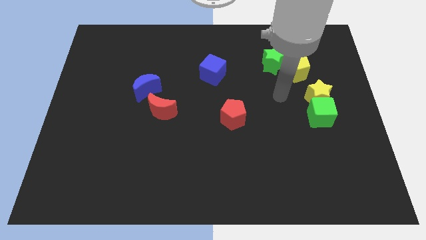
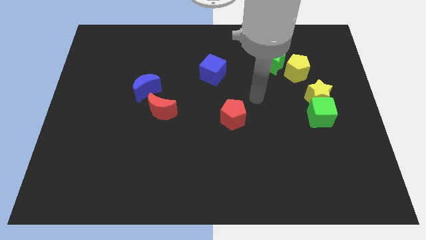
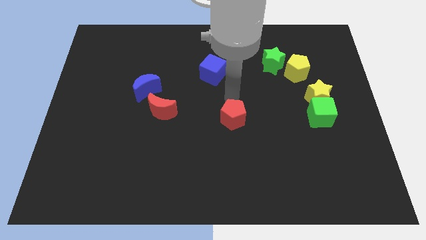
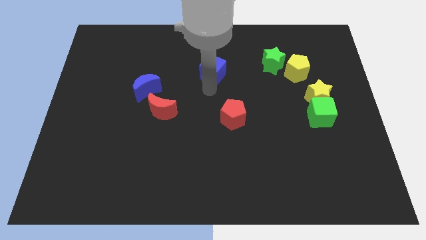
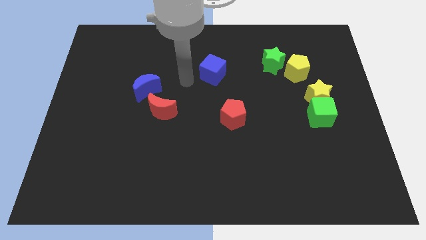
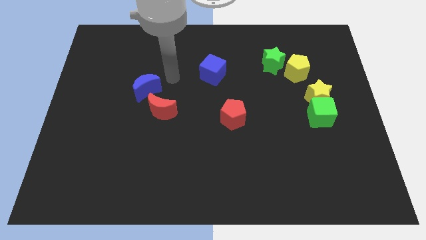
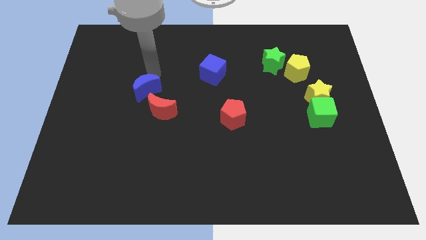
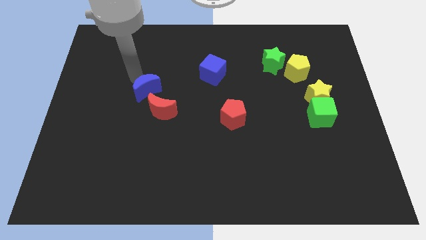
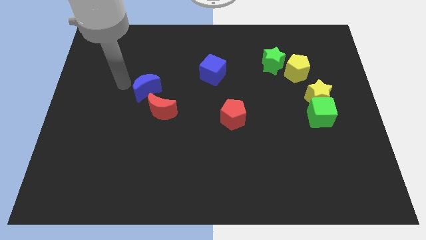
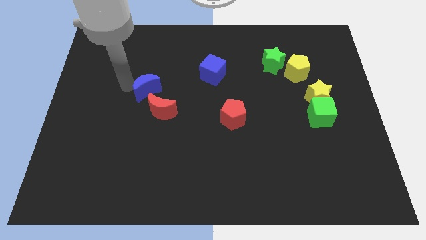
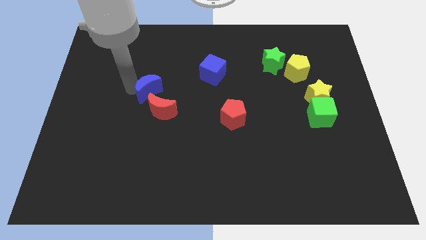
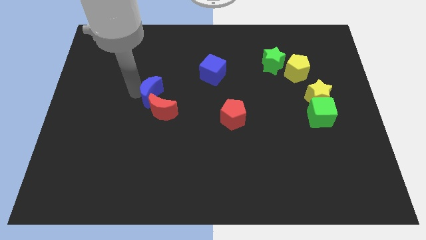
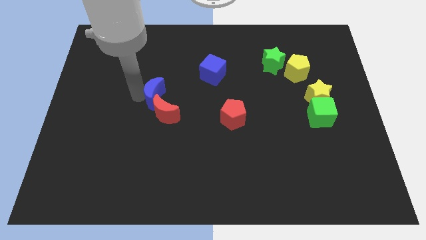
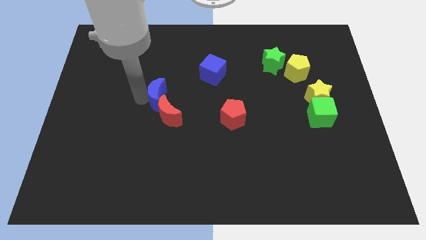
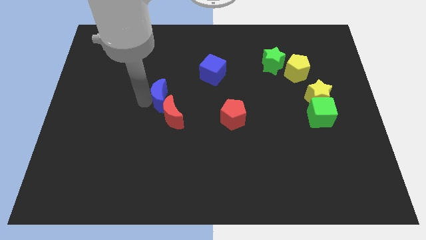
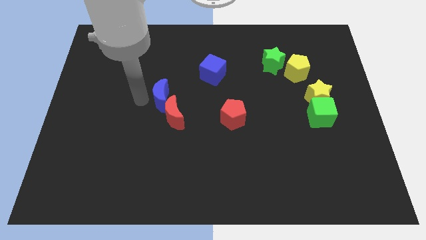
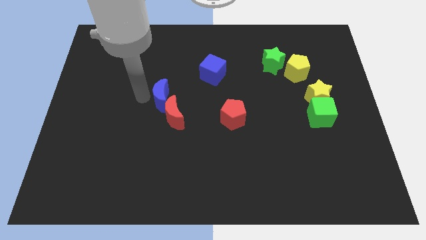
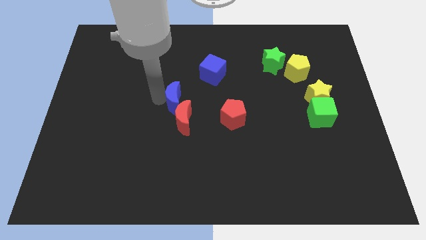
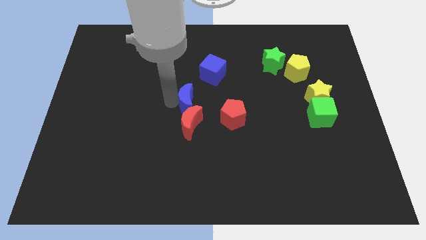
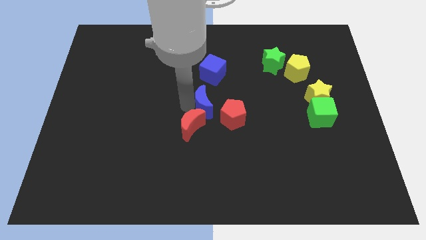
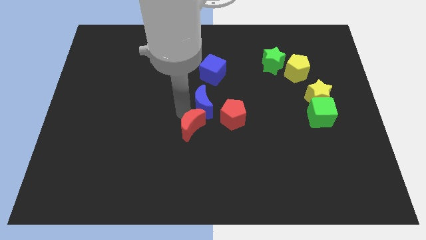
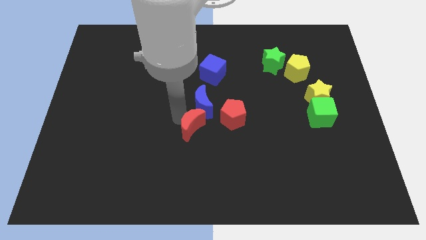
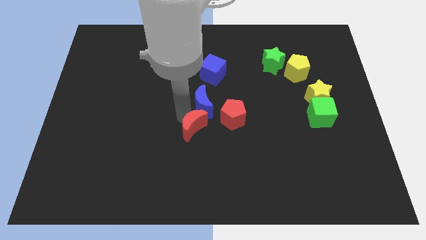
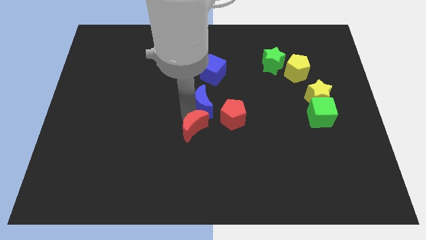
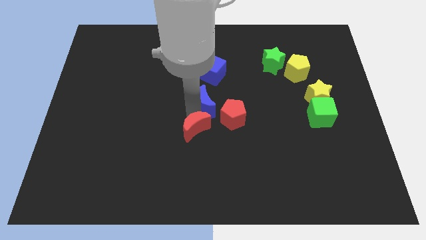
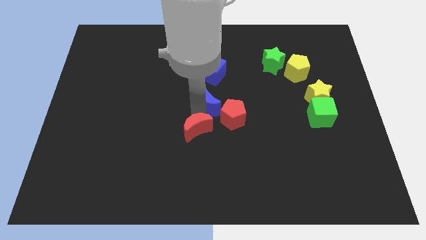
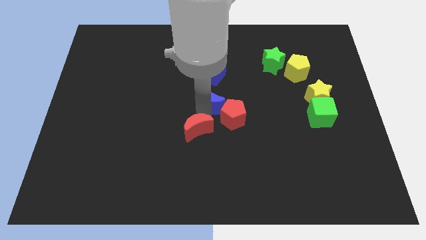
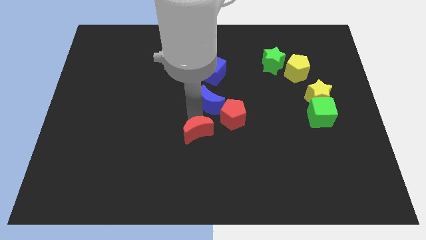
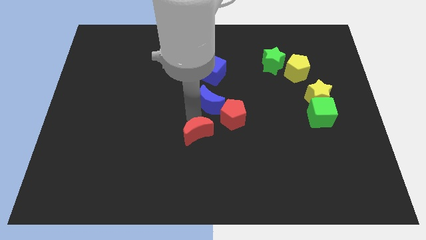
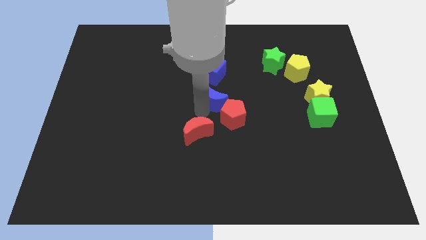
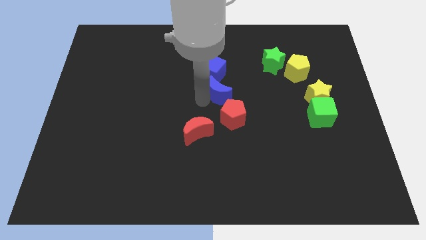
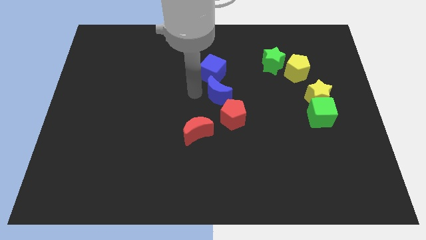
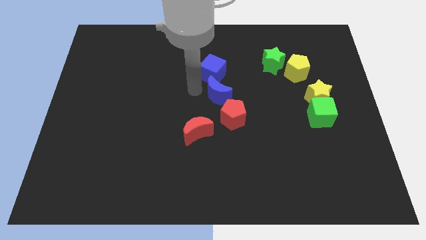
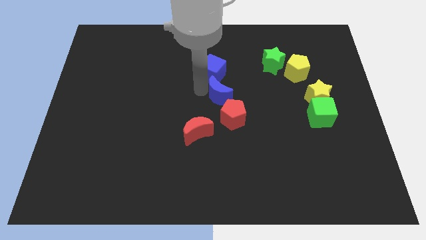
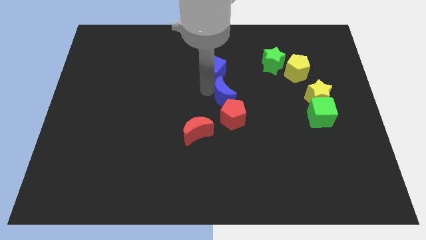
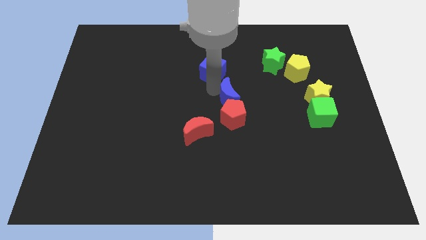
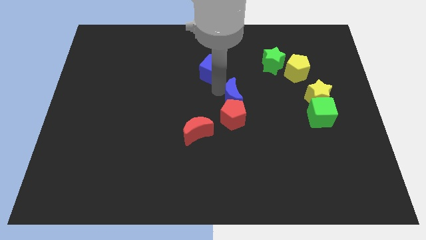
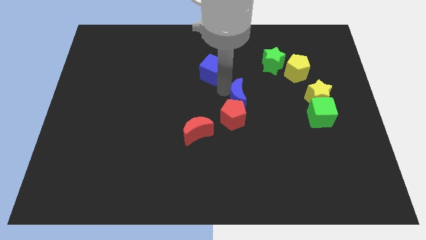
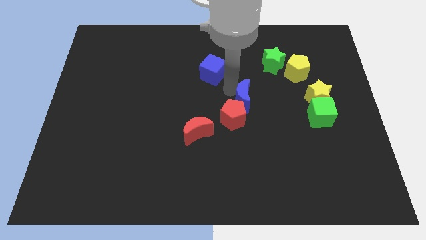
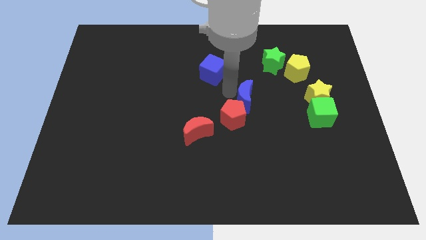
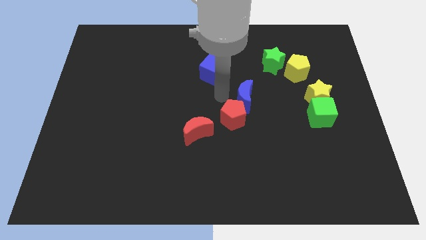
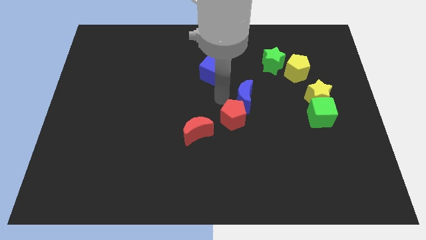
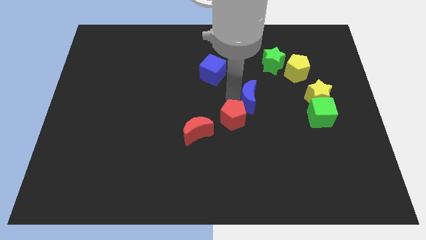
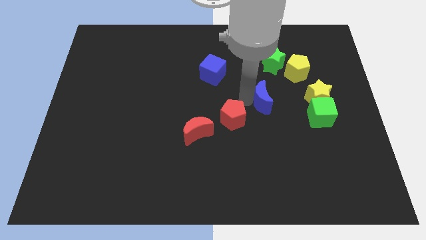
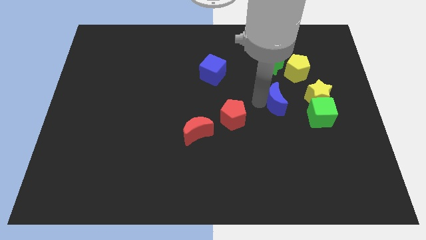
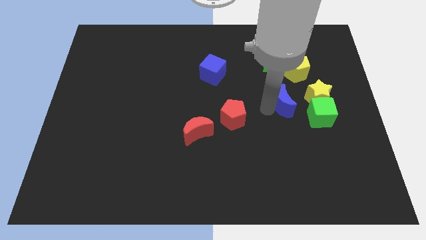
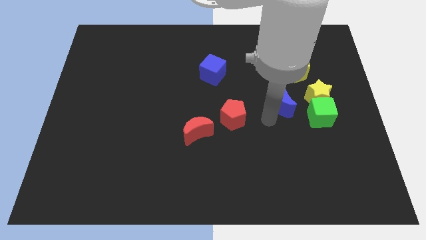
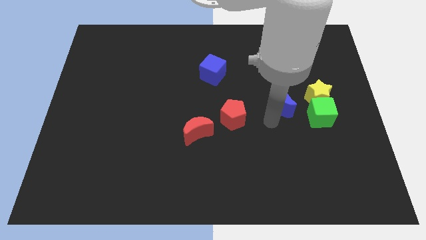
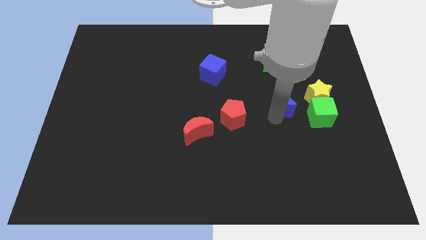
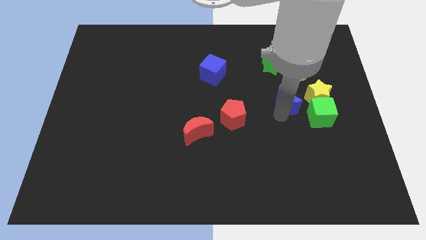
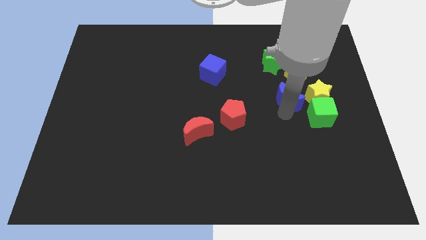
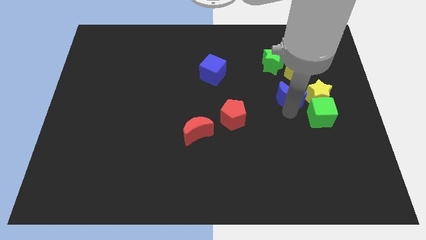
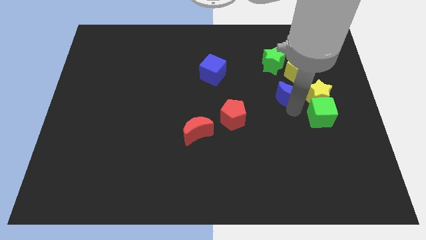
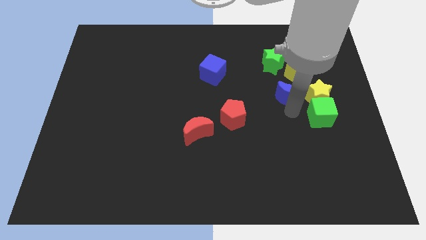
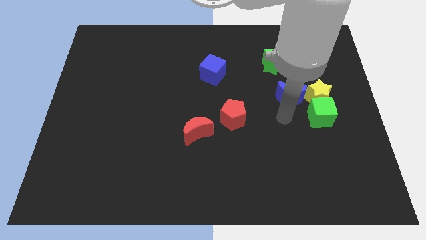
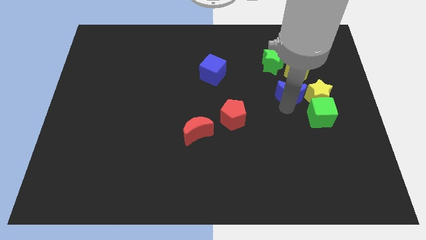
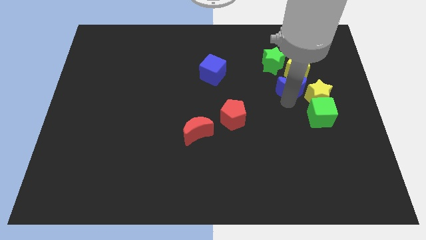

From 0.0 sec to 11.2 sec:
push the blue moon diagonally down and to the right of the green star
